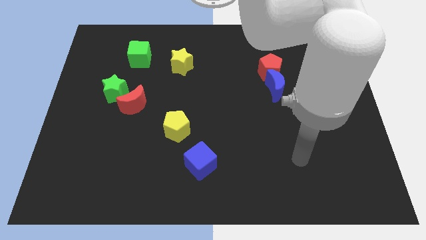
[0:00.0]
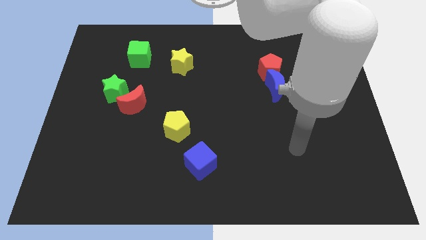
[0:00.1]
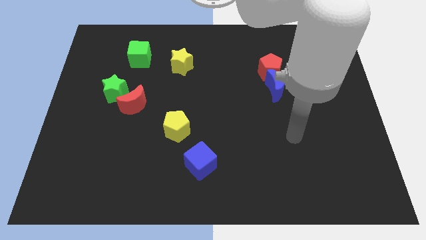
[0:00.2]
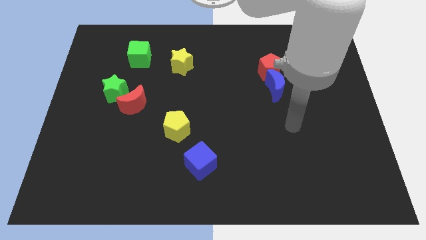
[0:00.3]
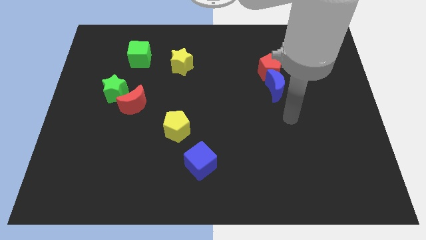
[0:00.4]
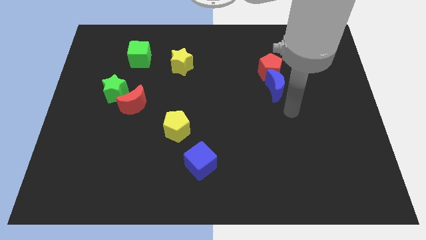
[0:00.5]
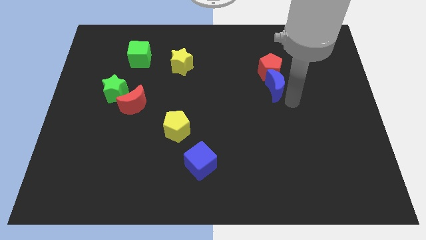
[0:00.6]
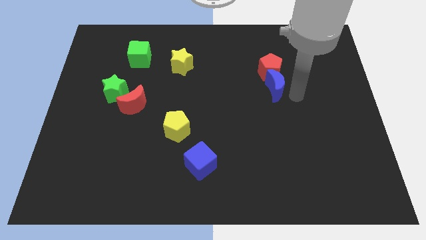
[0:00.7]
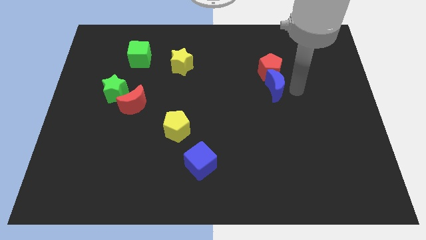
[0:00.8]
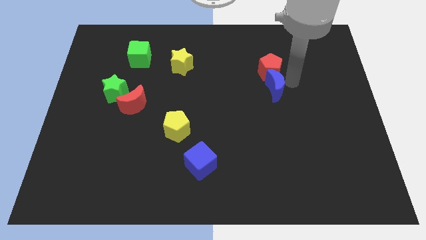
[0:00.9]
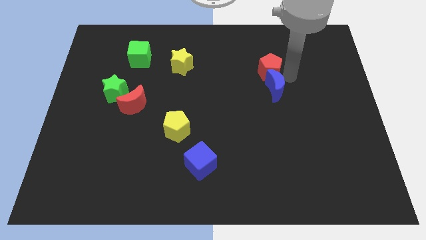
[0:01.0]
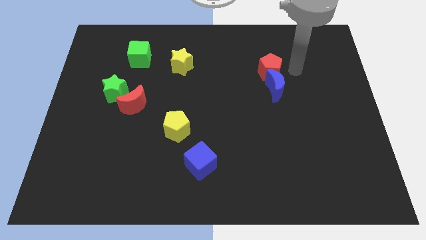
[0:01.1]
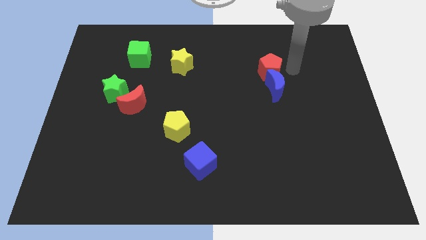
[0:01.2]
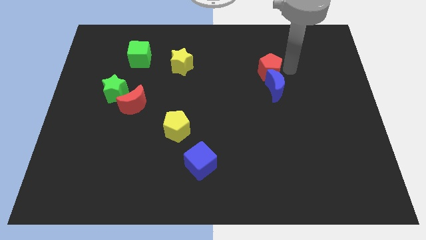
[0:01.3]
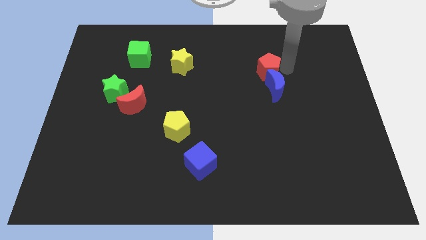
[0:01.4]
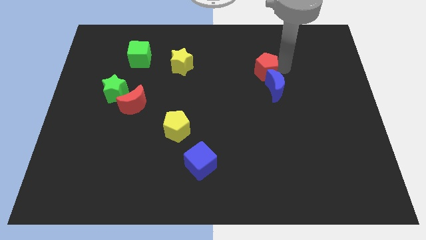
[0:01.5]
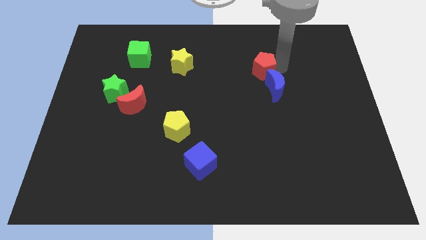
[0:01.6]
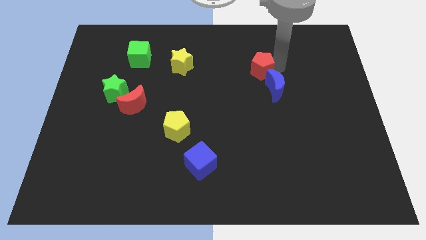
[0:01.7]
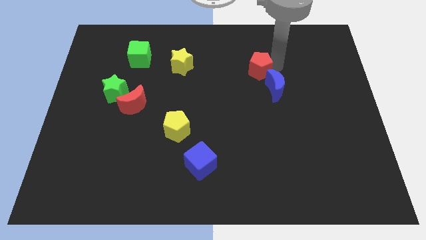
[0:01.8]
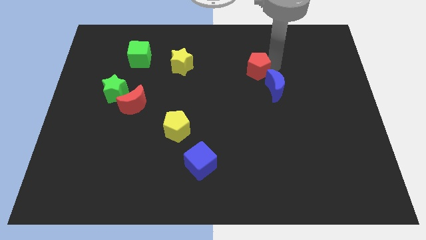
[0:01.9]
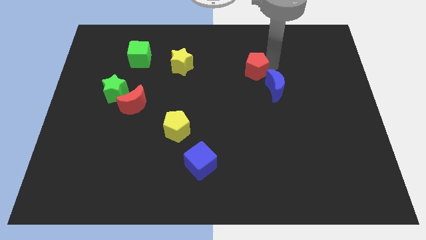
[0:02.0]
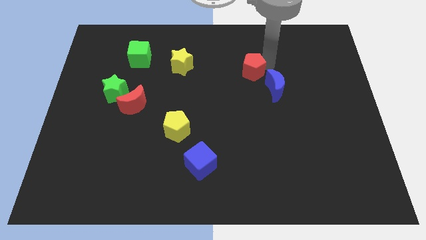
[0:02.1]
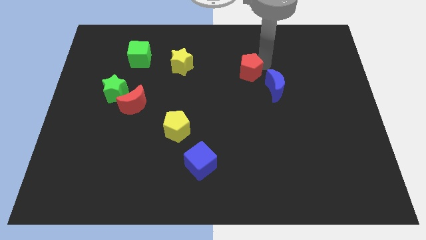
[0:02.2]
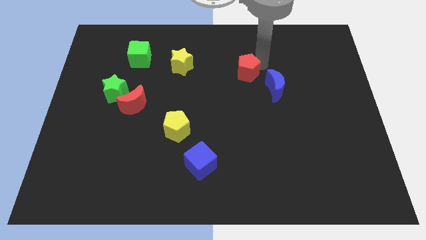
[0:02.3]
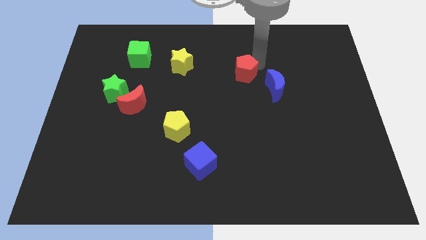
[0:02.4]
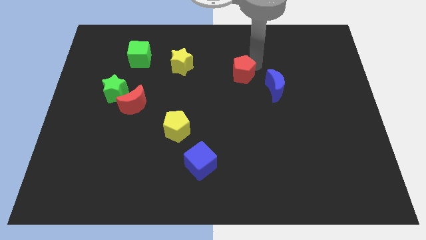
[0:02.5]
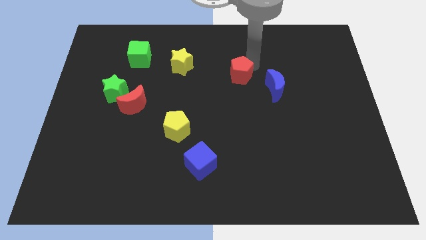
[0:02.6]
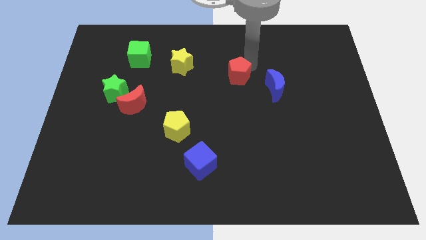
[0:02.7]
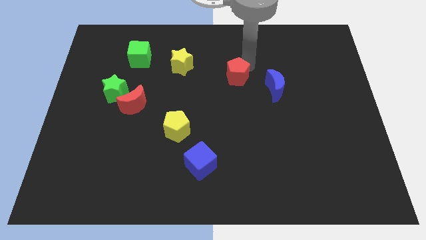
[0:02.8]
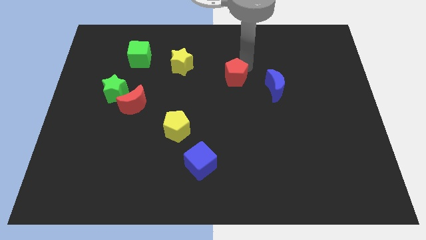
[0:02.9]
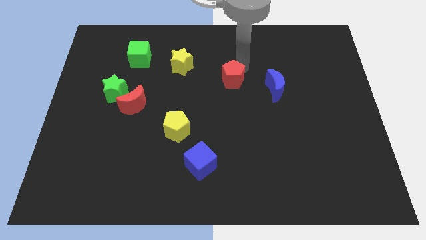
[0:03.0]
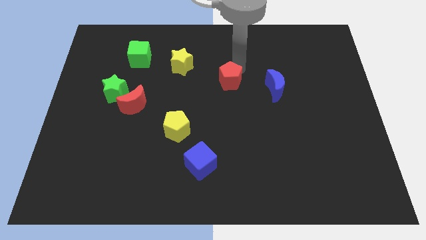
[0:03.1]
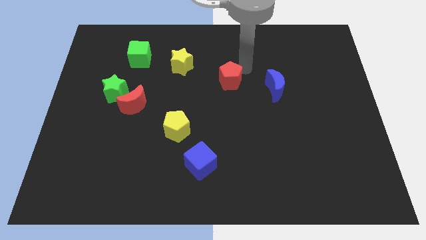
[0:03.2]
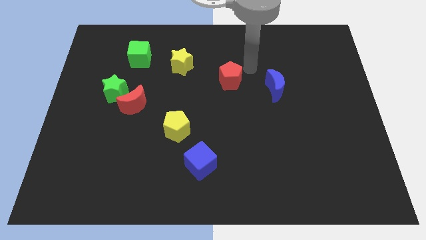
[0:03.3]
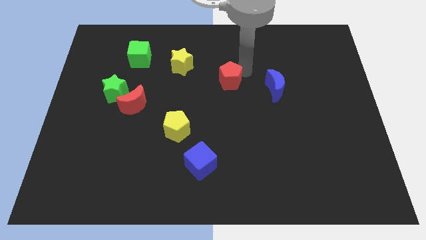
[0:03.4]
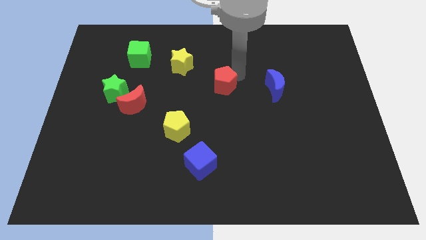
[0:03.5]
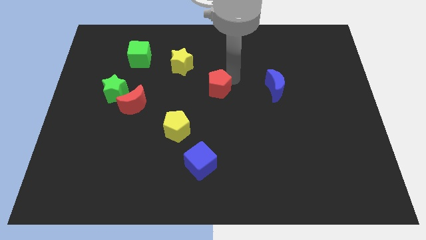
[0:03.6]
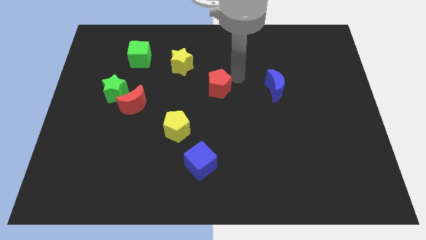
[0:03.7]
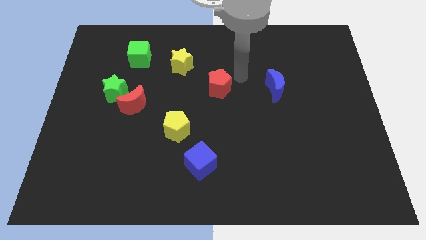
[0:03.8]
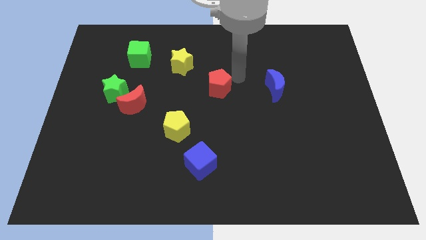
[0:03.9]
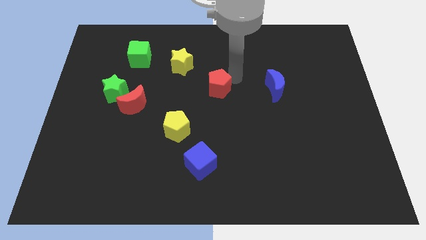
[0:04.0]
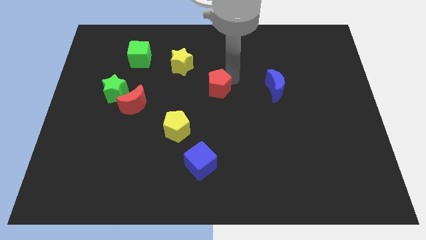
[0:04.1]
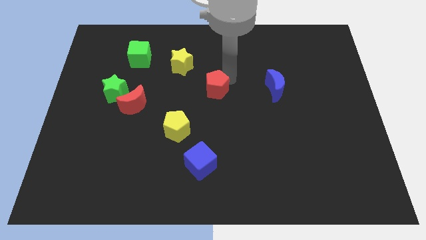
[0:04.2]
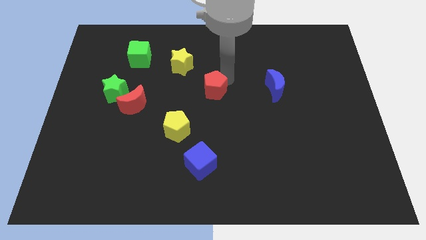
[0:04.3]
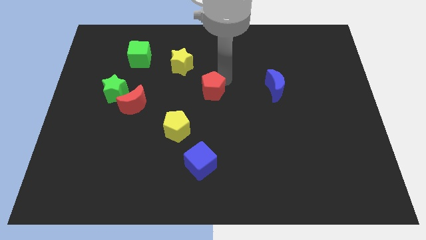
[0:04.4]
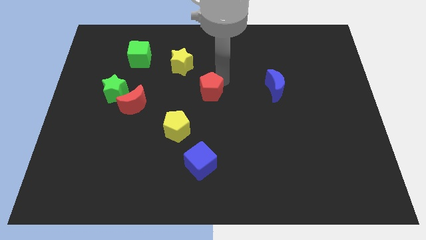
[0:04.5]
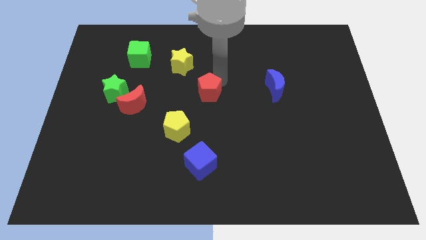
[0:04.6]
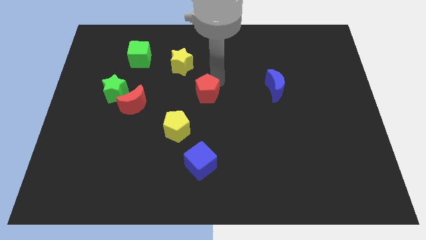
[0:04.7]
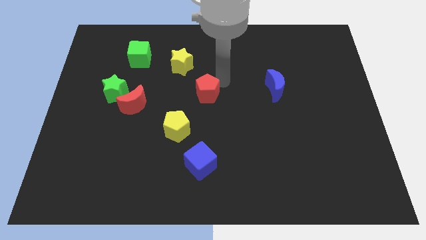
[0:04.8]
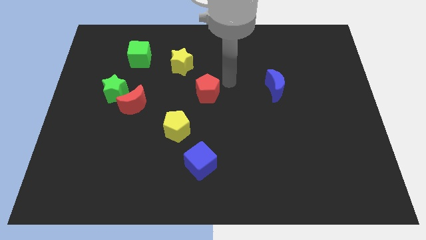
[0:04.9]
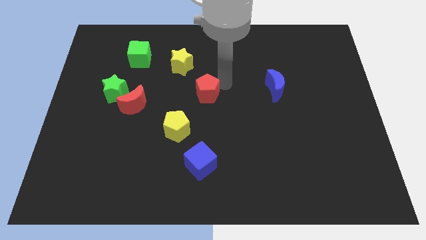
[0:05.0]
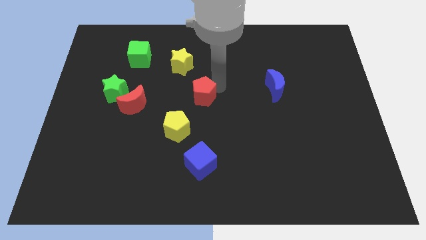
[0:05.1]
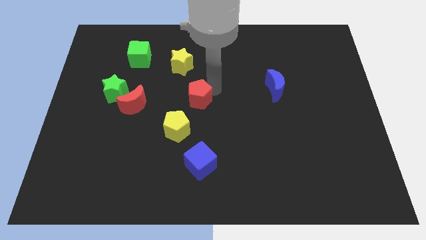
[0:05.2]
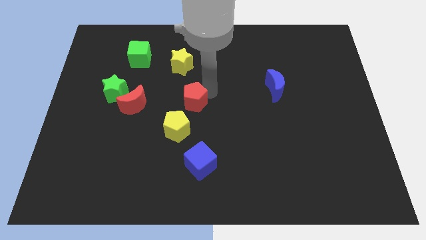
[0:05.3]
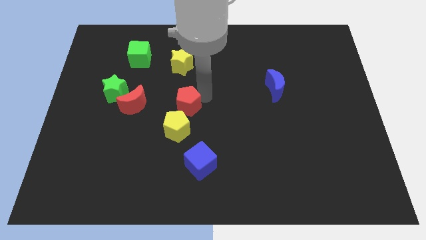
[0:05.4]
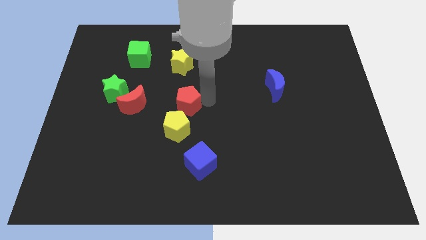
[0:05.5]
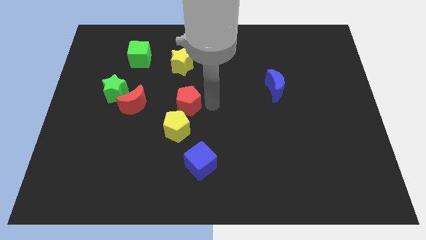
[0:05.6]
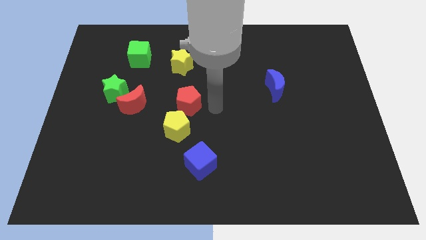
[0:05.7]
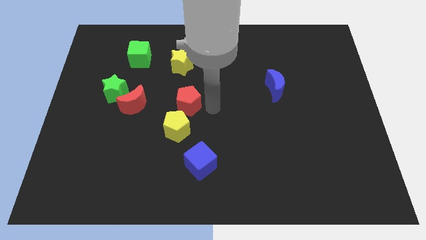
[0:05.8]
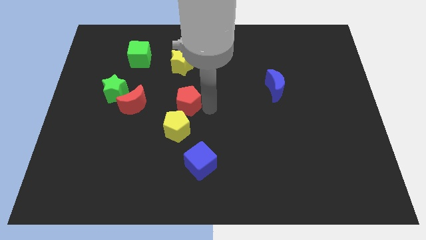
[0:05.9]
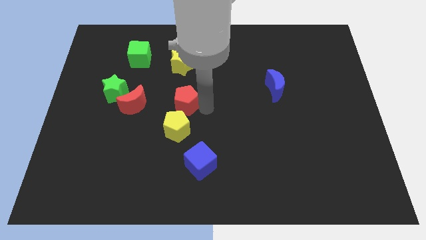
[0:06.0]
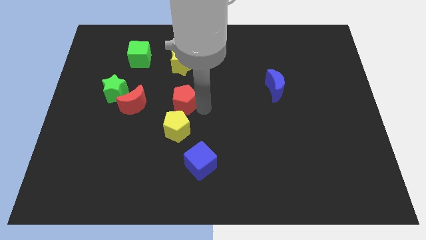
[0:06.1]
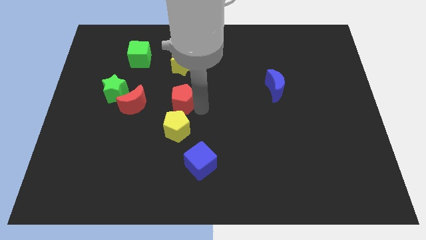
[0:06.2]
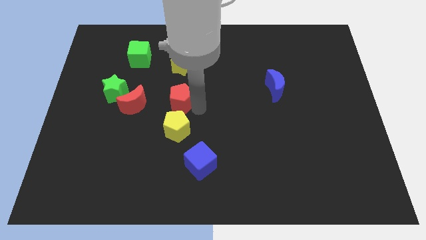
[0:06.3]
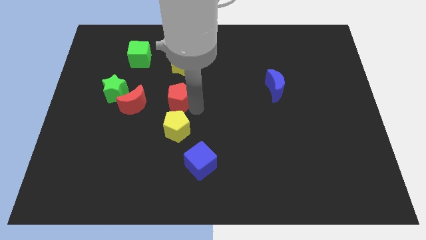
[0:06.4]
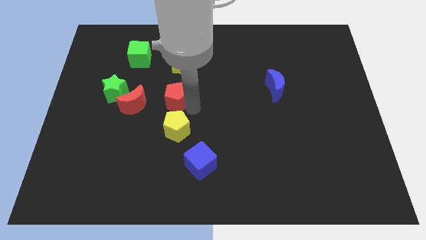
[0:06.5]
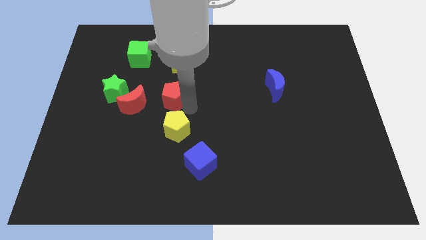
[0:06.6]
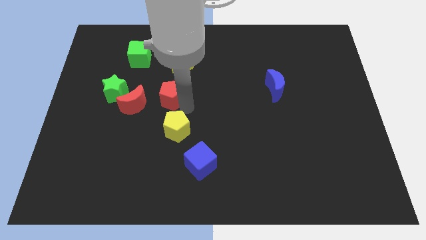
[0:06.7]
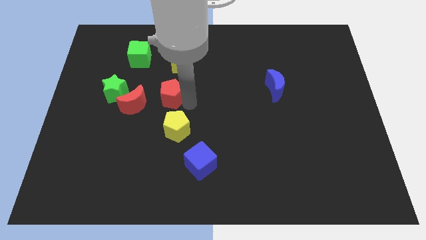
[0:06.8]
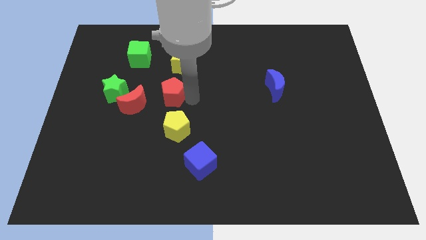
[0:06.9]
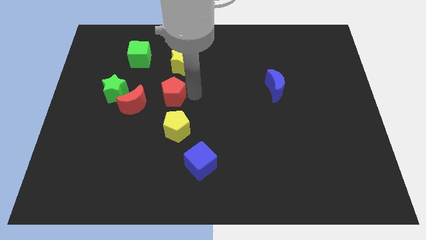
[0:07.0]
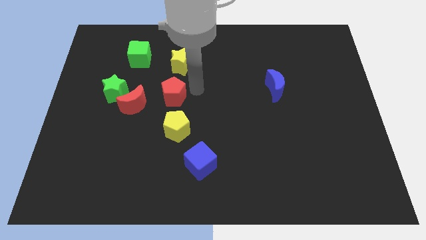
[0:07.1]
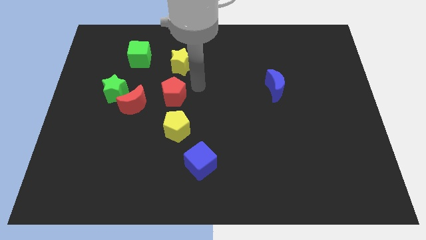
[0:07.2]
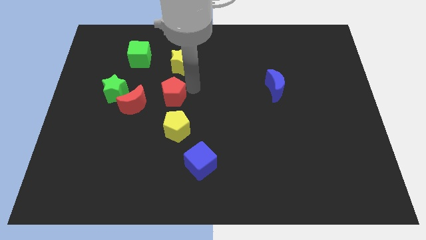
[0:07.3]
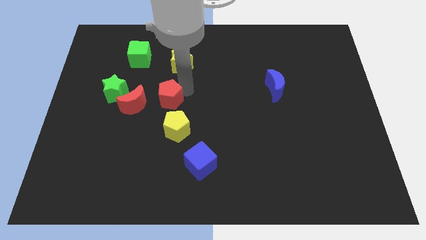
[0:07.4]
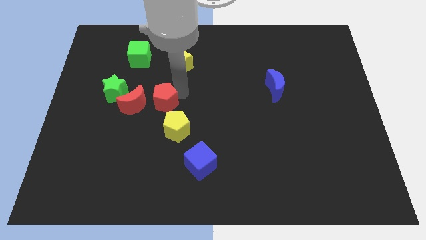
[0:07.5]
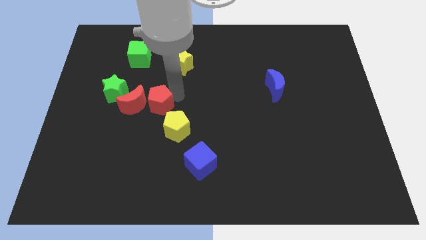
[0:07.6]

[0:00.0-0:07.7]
slide the red pentagon next to the red moon

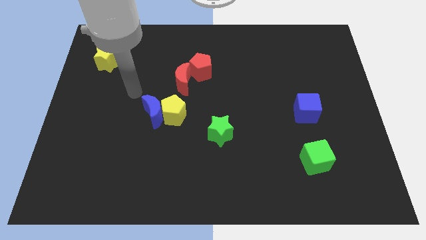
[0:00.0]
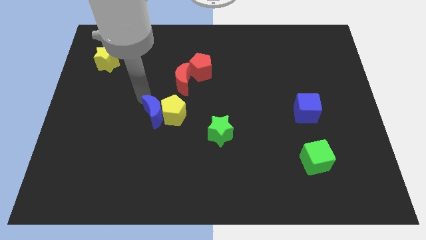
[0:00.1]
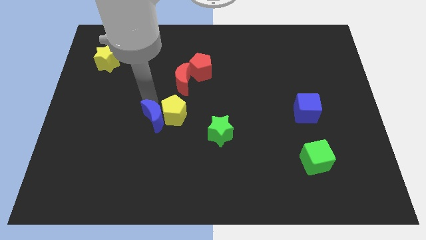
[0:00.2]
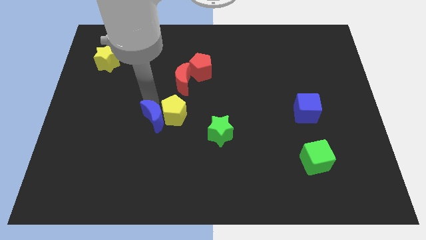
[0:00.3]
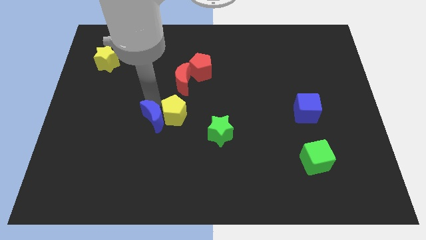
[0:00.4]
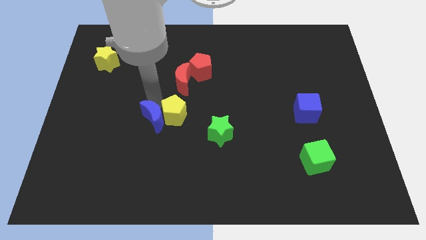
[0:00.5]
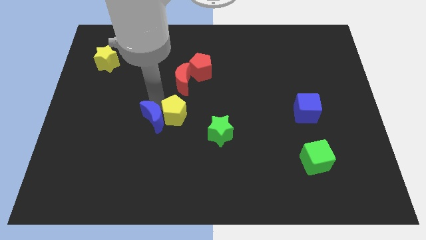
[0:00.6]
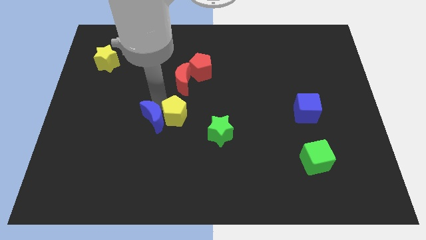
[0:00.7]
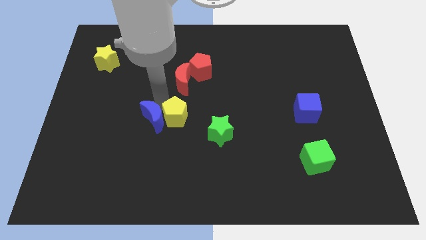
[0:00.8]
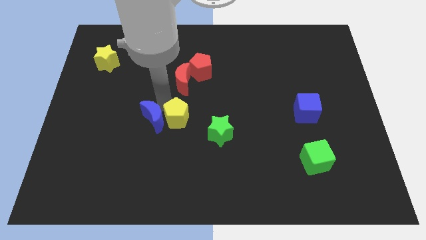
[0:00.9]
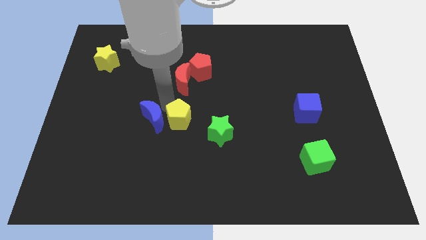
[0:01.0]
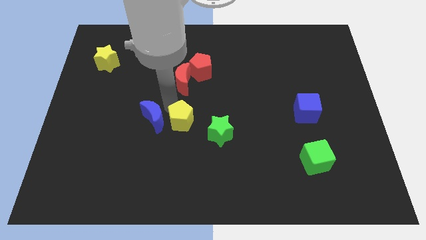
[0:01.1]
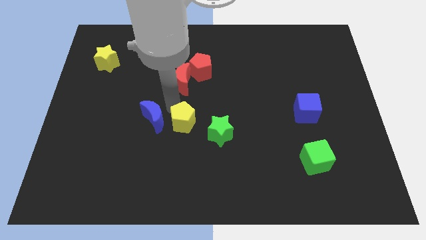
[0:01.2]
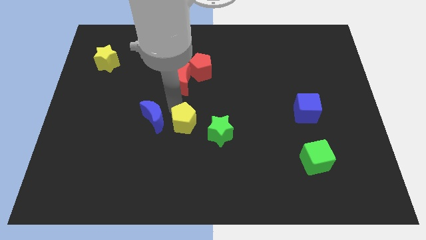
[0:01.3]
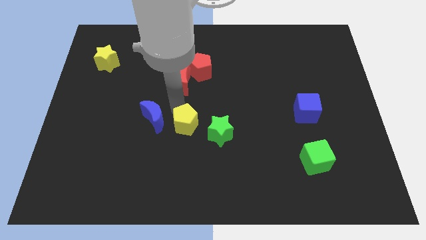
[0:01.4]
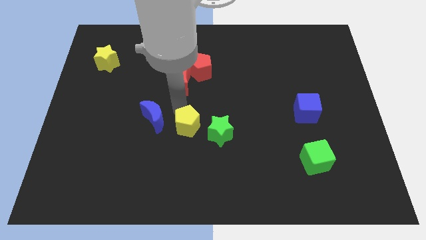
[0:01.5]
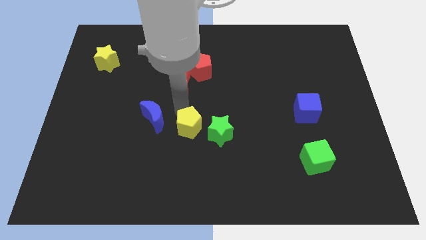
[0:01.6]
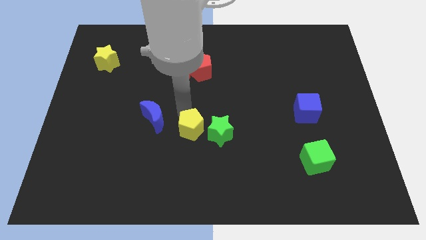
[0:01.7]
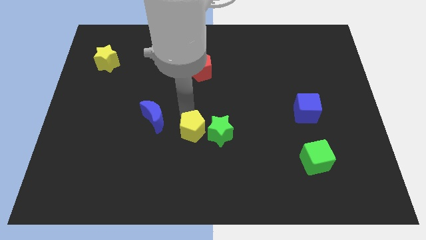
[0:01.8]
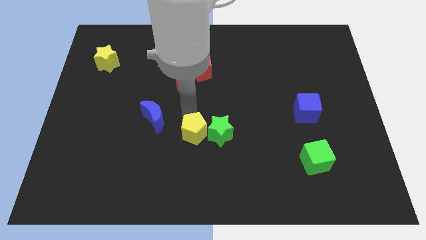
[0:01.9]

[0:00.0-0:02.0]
move the yellow pentagon towards the green star
